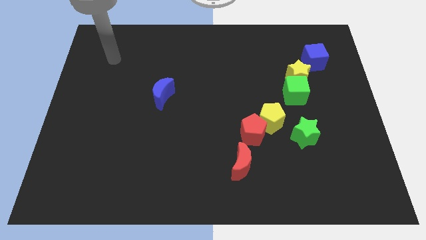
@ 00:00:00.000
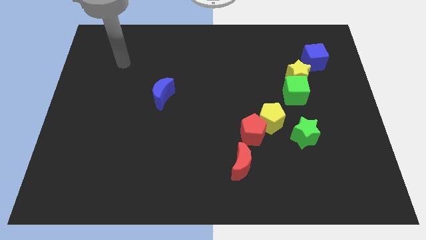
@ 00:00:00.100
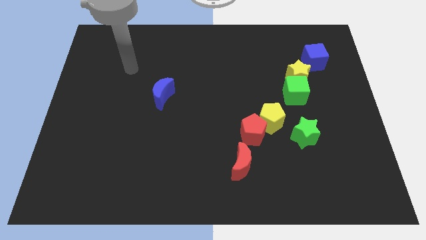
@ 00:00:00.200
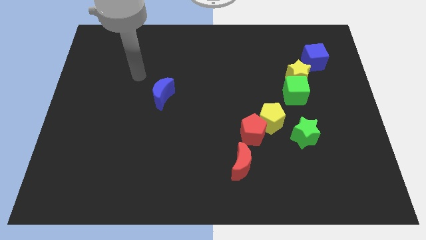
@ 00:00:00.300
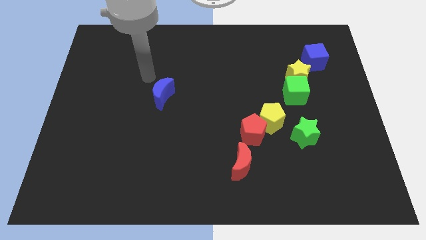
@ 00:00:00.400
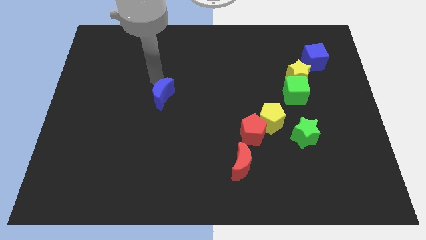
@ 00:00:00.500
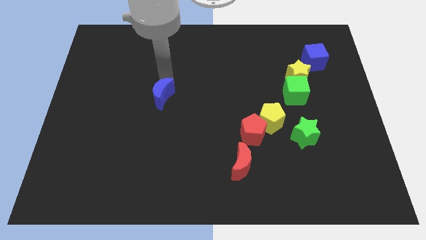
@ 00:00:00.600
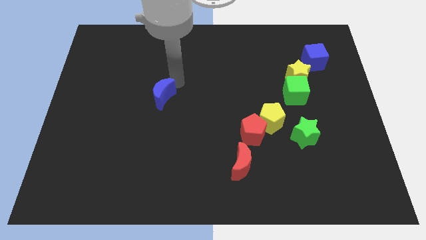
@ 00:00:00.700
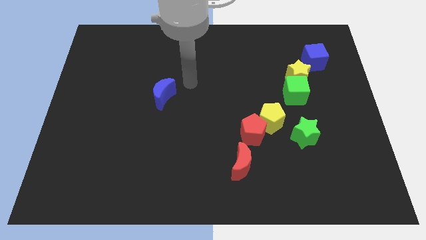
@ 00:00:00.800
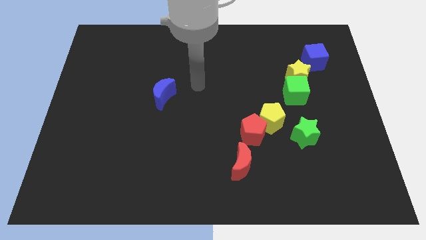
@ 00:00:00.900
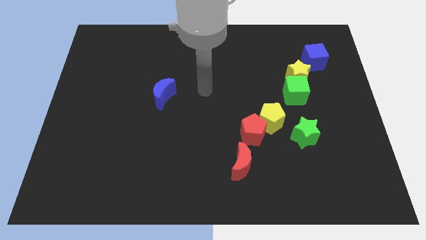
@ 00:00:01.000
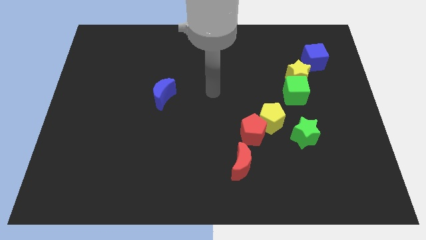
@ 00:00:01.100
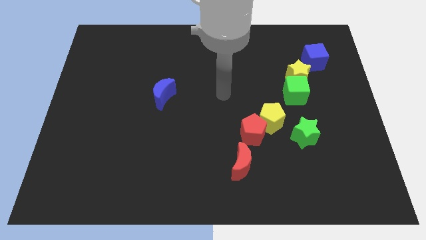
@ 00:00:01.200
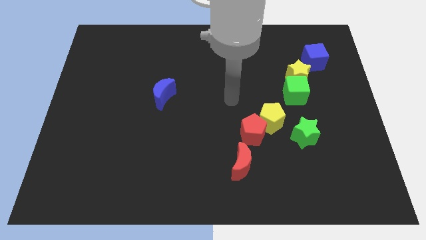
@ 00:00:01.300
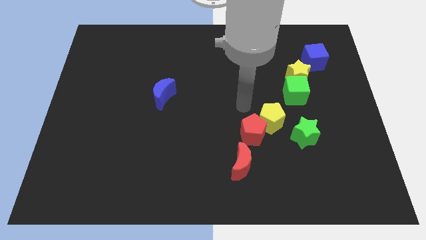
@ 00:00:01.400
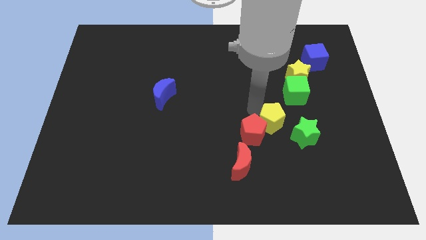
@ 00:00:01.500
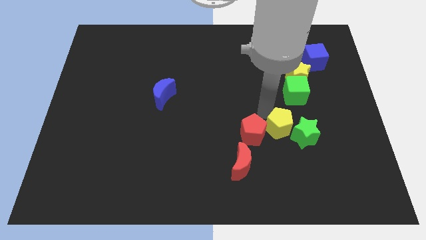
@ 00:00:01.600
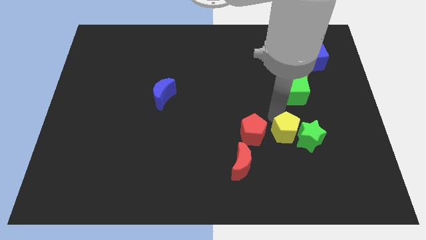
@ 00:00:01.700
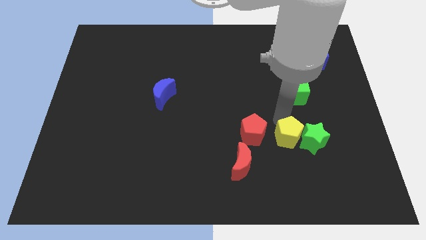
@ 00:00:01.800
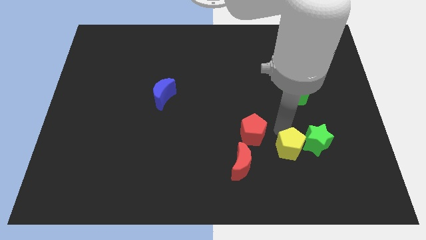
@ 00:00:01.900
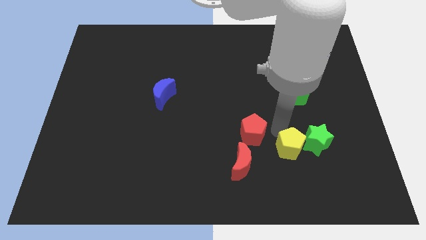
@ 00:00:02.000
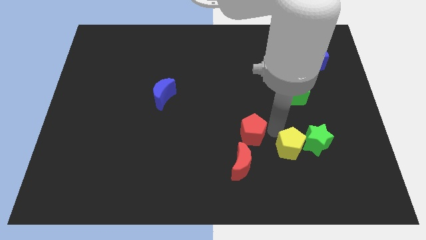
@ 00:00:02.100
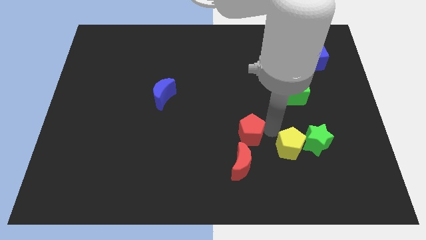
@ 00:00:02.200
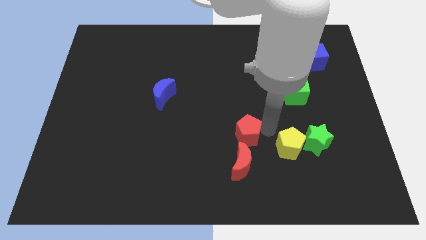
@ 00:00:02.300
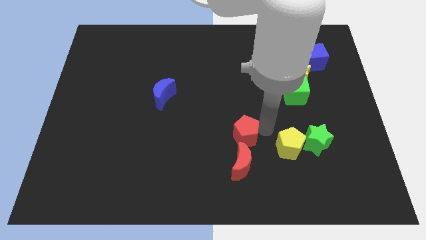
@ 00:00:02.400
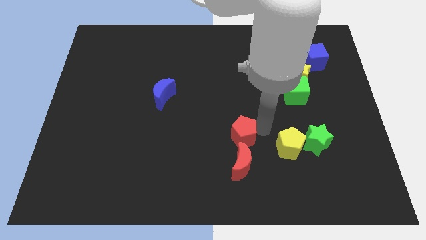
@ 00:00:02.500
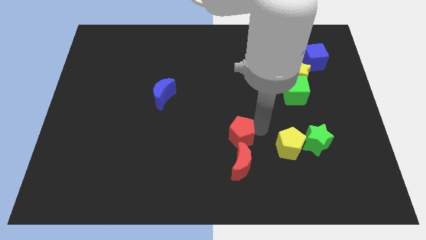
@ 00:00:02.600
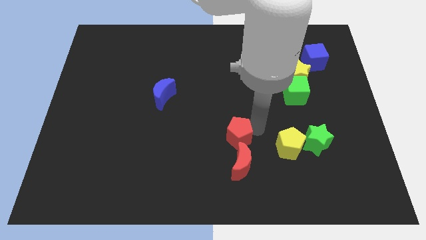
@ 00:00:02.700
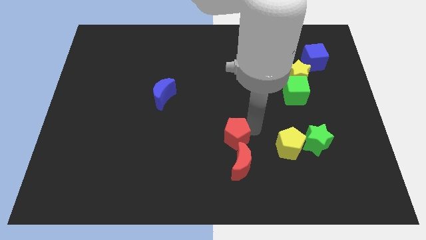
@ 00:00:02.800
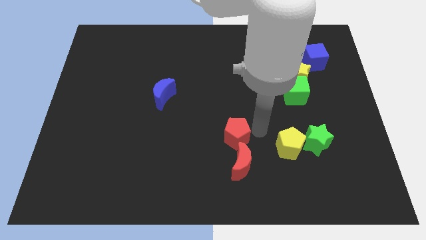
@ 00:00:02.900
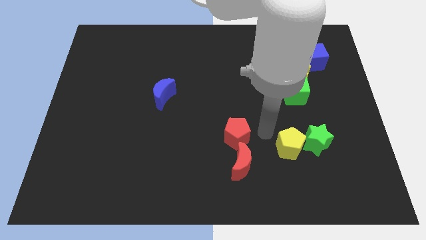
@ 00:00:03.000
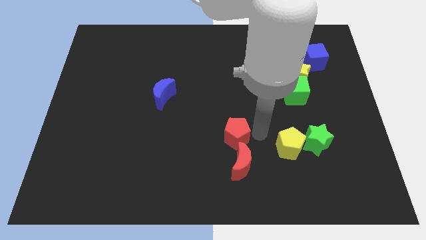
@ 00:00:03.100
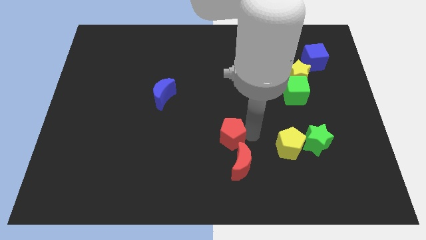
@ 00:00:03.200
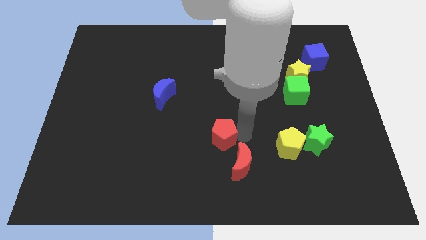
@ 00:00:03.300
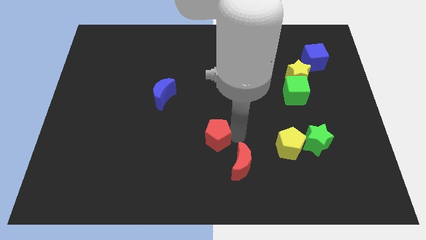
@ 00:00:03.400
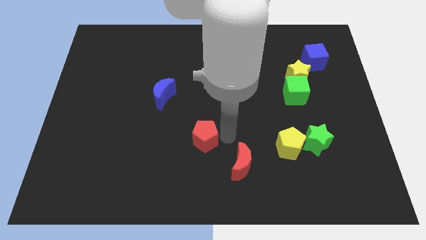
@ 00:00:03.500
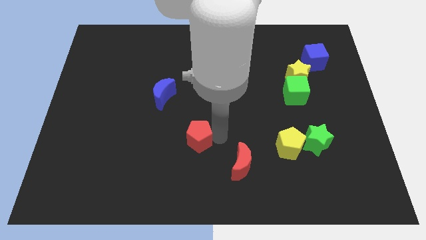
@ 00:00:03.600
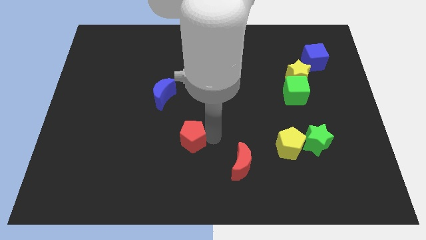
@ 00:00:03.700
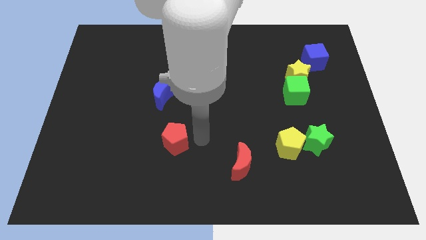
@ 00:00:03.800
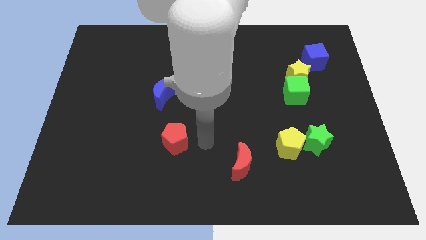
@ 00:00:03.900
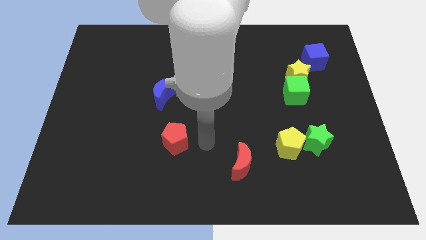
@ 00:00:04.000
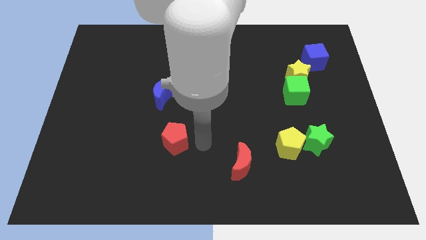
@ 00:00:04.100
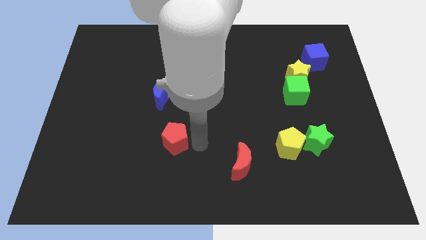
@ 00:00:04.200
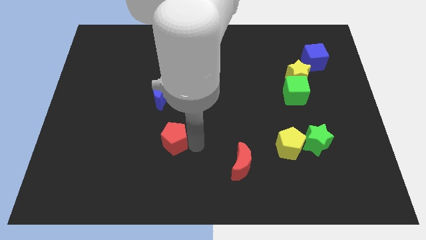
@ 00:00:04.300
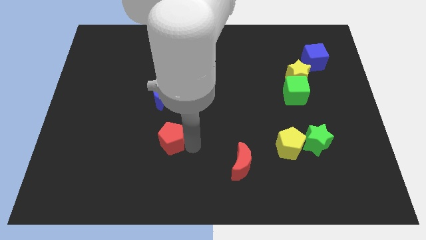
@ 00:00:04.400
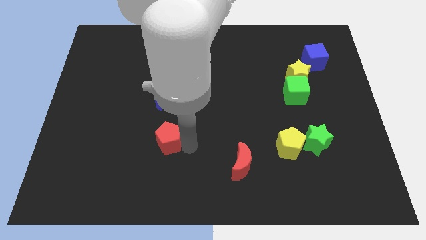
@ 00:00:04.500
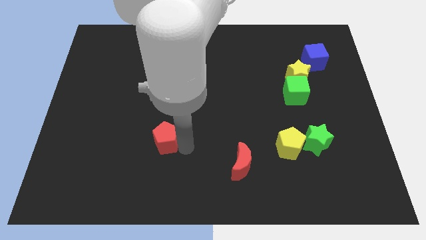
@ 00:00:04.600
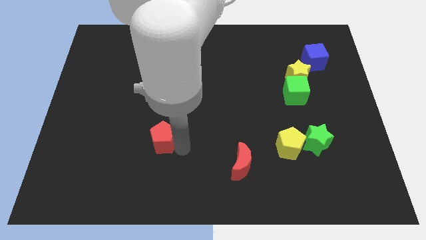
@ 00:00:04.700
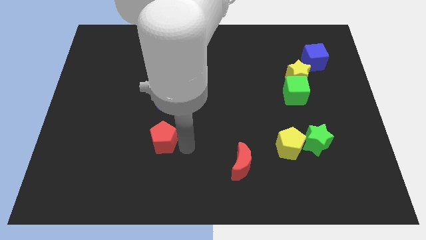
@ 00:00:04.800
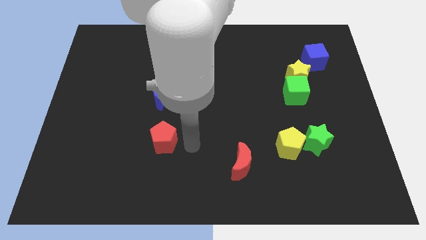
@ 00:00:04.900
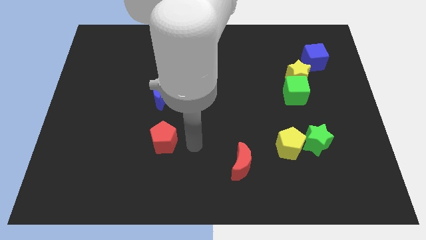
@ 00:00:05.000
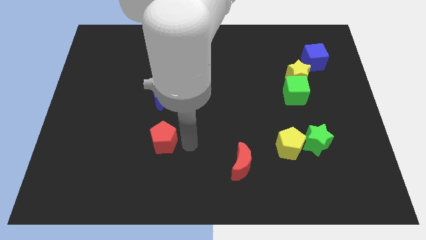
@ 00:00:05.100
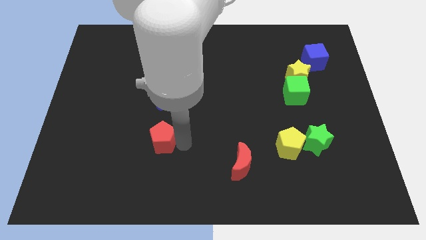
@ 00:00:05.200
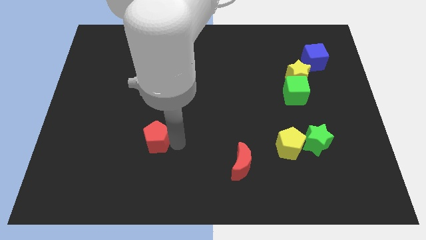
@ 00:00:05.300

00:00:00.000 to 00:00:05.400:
slide the red pentagon left

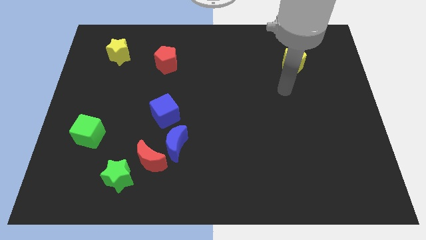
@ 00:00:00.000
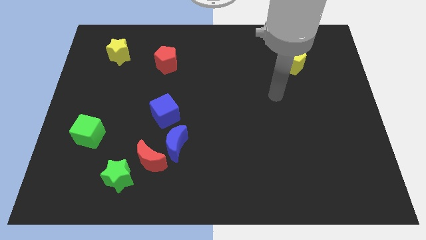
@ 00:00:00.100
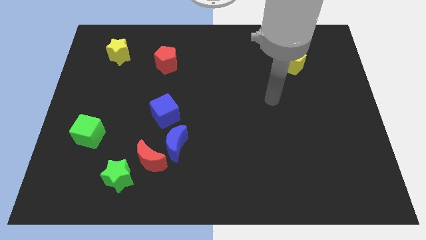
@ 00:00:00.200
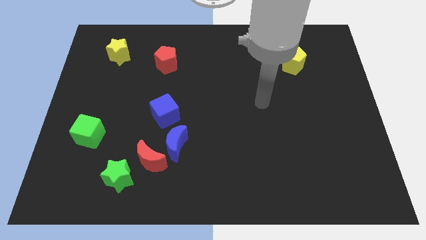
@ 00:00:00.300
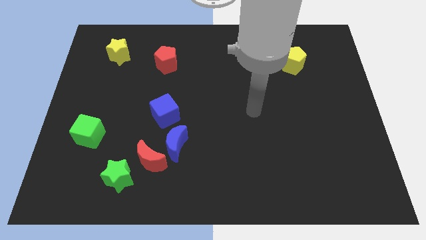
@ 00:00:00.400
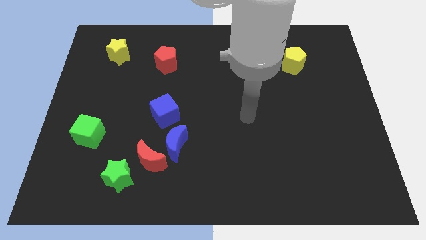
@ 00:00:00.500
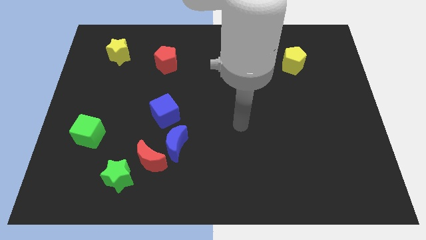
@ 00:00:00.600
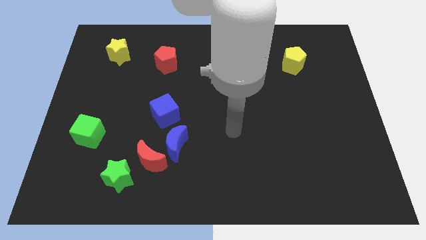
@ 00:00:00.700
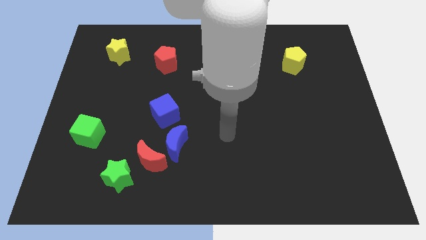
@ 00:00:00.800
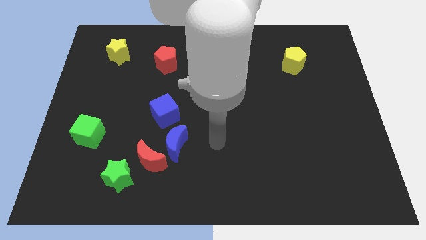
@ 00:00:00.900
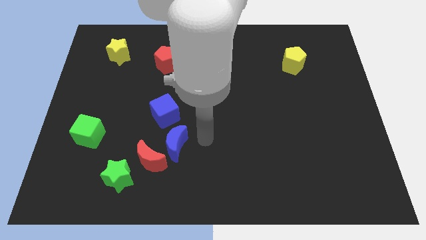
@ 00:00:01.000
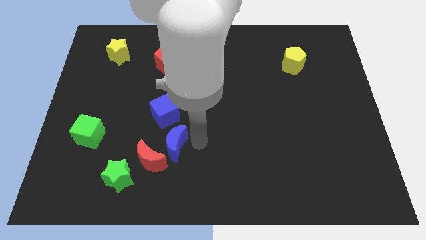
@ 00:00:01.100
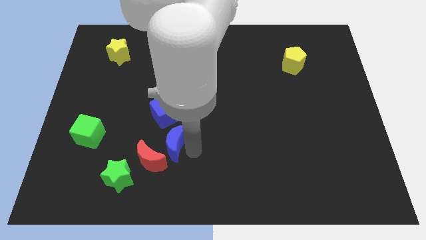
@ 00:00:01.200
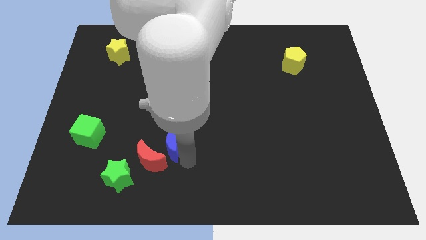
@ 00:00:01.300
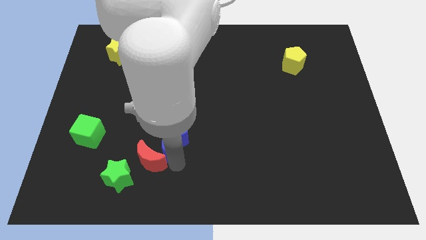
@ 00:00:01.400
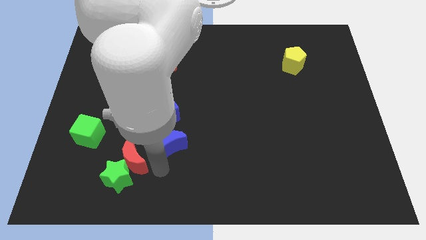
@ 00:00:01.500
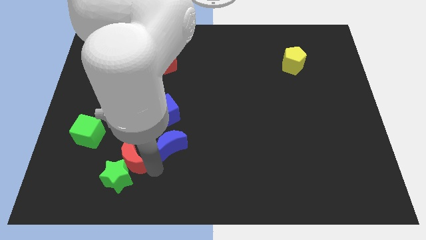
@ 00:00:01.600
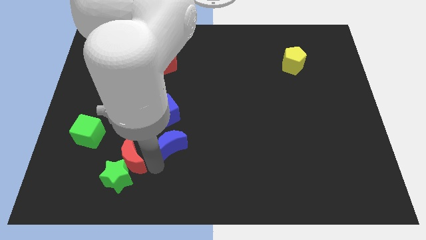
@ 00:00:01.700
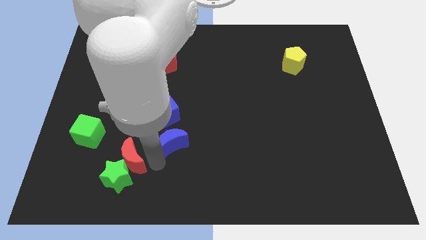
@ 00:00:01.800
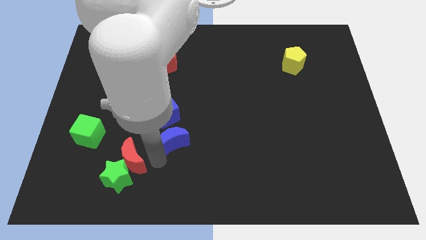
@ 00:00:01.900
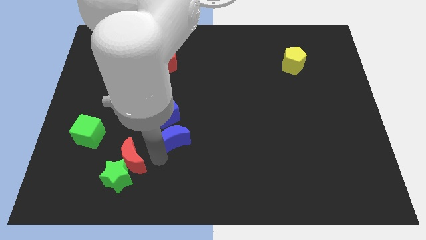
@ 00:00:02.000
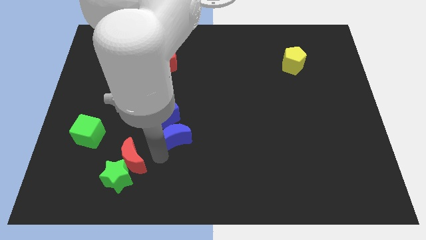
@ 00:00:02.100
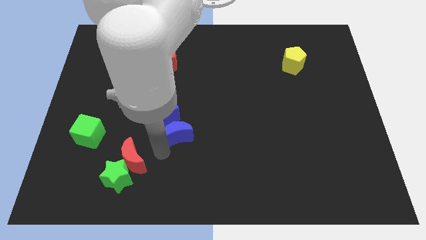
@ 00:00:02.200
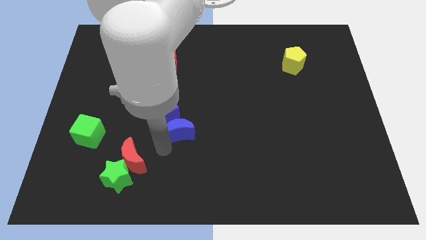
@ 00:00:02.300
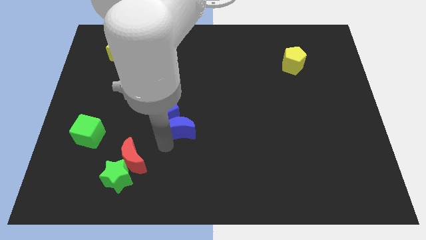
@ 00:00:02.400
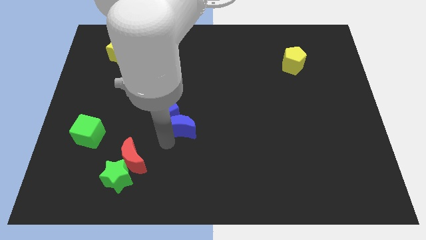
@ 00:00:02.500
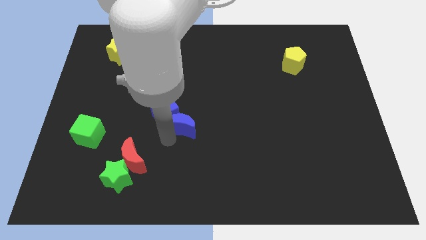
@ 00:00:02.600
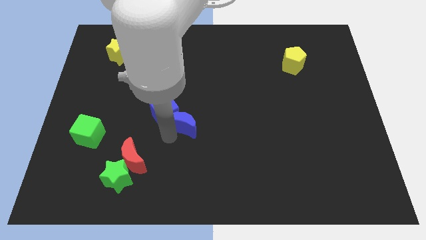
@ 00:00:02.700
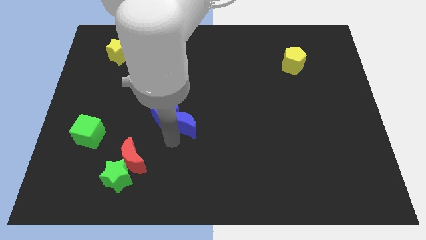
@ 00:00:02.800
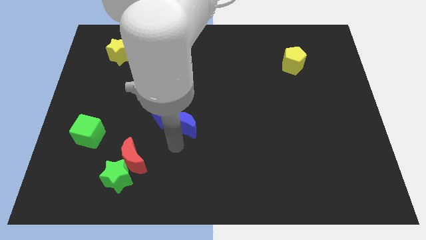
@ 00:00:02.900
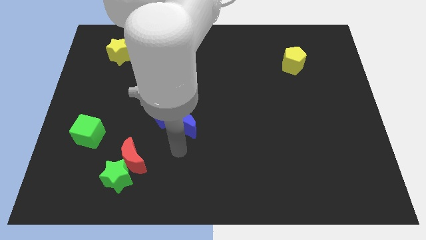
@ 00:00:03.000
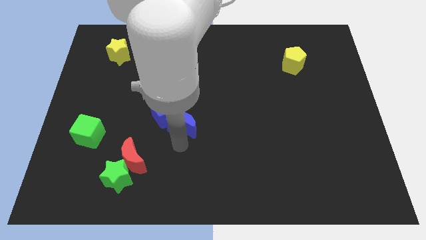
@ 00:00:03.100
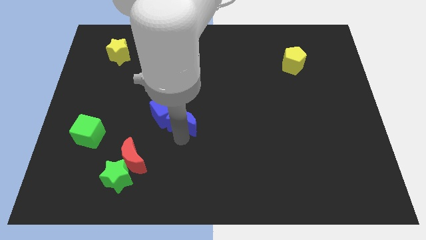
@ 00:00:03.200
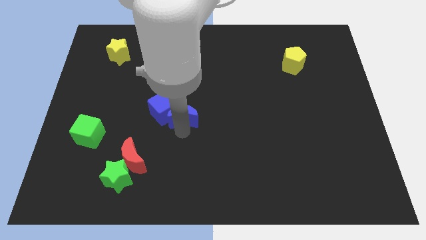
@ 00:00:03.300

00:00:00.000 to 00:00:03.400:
move the blue moon a little bit upwards
